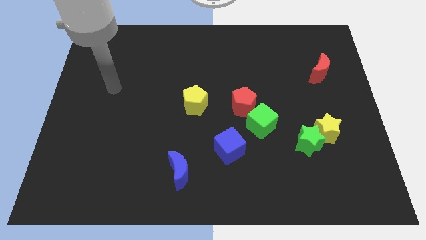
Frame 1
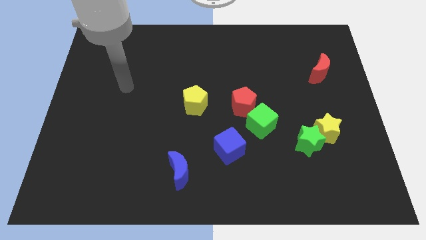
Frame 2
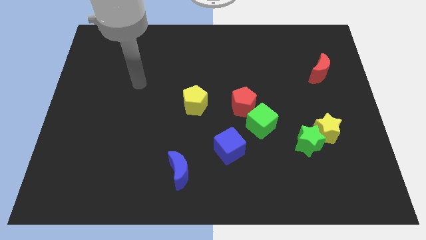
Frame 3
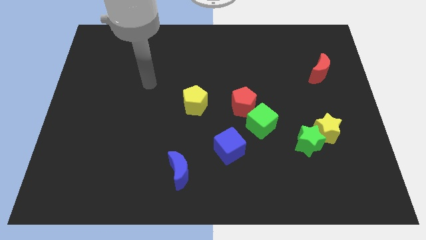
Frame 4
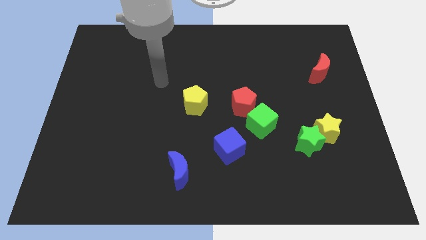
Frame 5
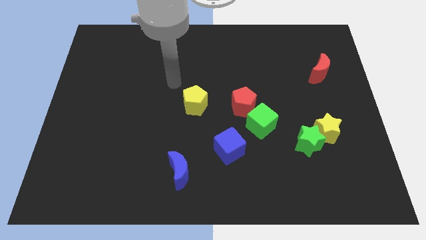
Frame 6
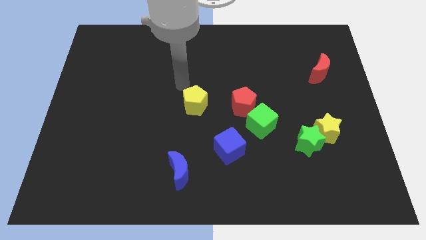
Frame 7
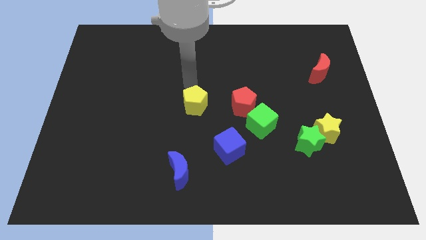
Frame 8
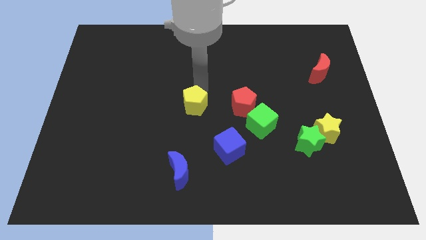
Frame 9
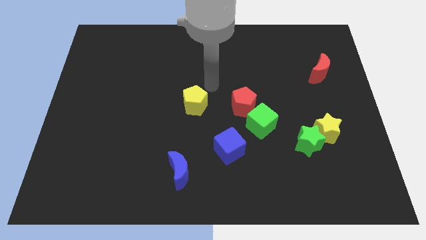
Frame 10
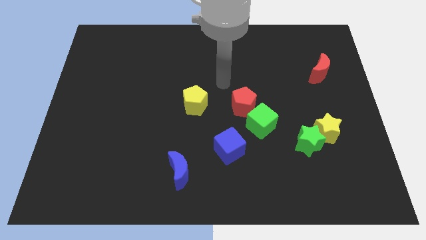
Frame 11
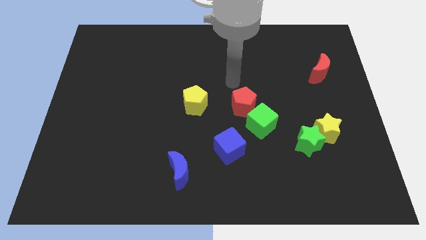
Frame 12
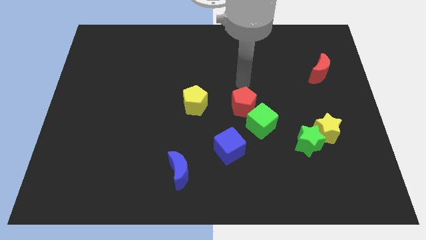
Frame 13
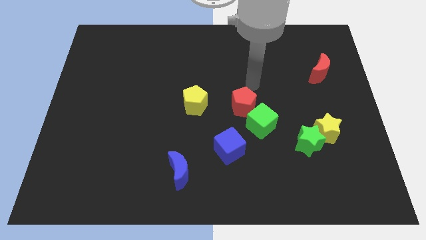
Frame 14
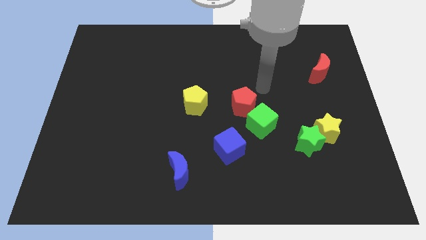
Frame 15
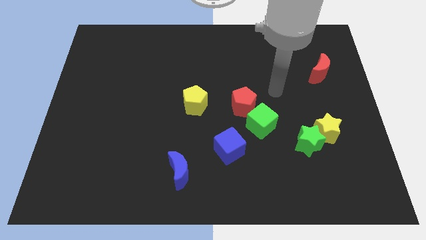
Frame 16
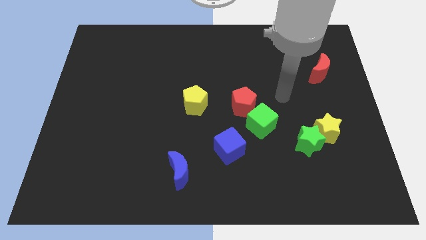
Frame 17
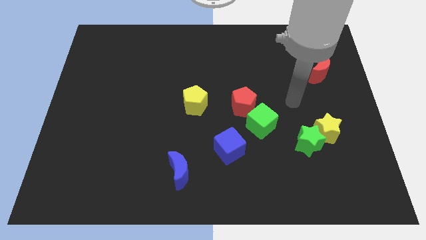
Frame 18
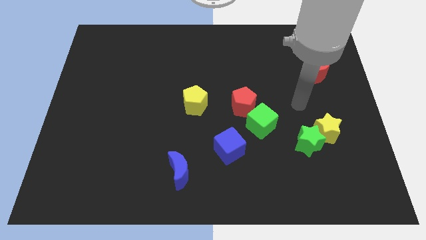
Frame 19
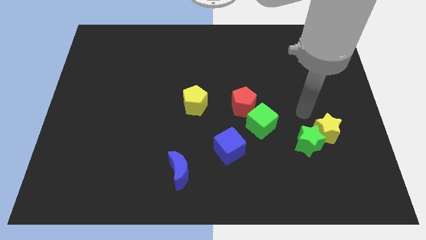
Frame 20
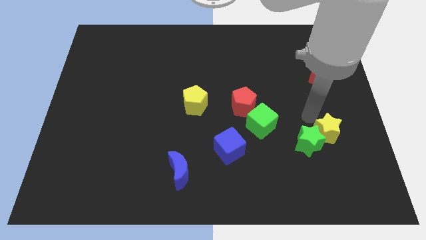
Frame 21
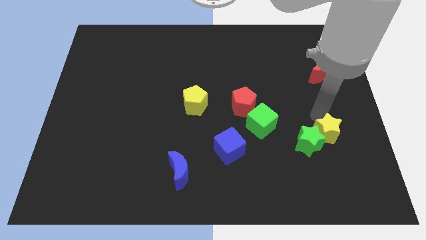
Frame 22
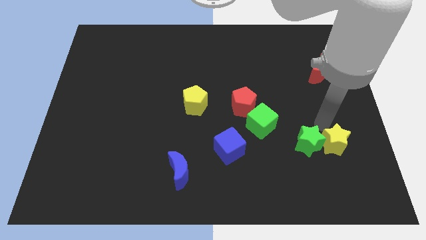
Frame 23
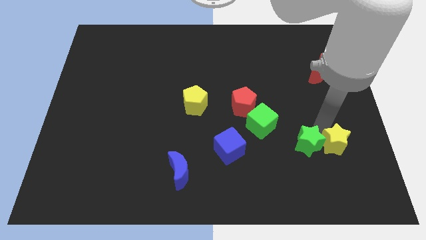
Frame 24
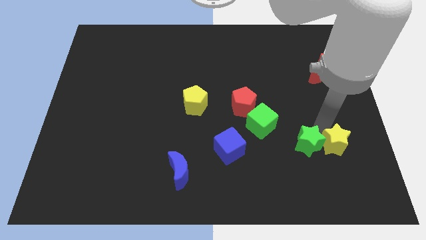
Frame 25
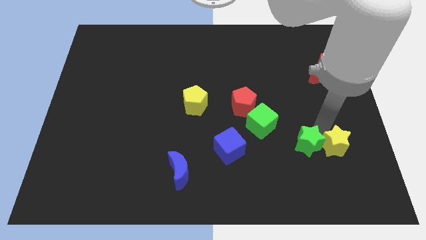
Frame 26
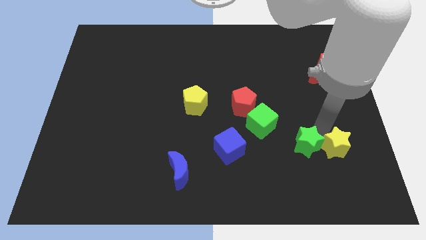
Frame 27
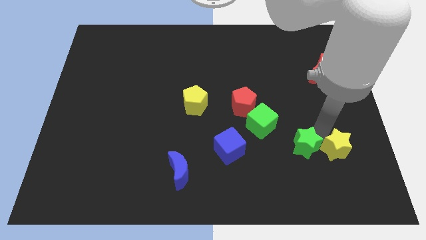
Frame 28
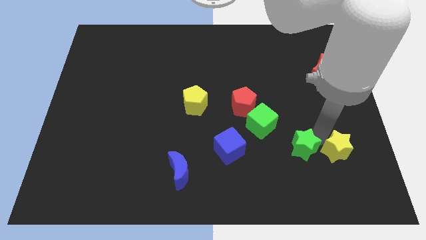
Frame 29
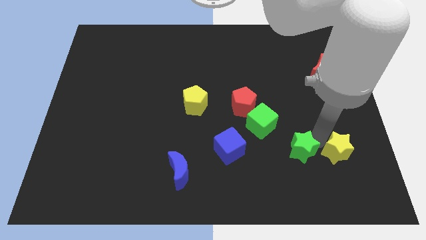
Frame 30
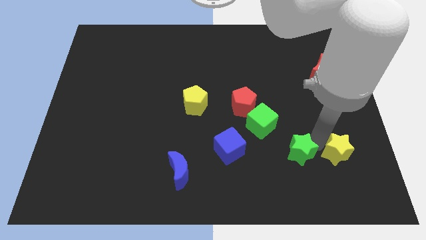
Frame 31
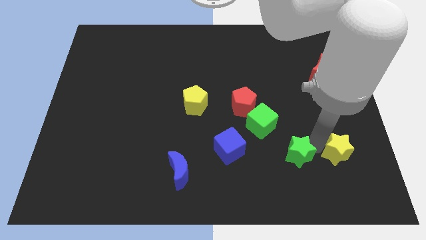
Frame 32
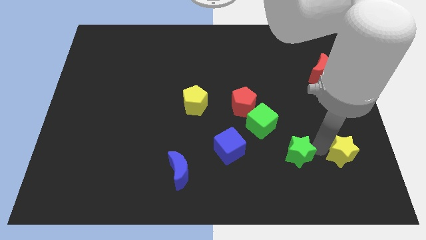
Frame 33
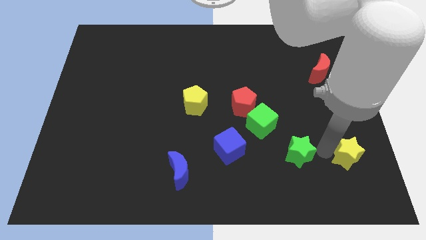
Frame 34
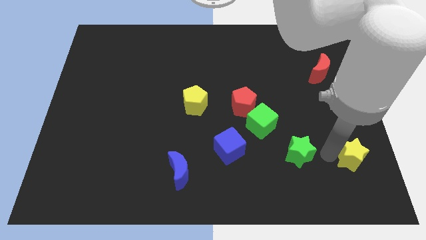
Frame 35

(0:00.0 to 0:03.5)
move the green star away from the yellow star

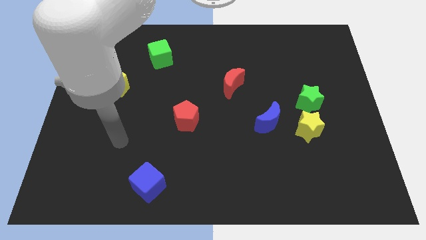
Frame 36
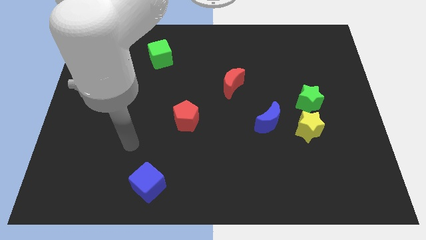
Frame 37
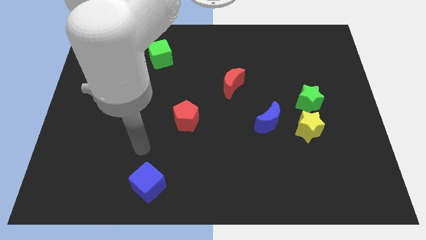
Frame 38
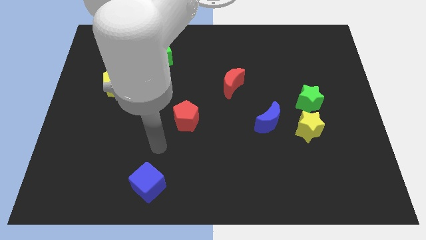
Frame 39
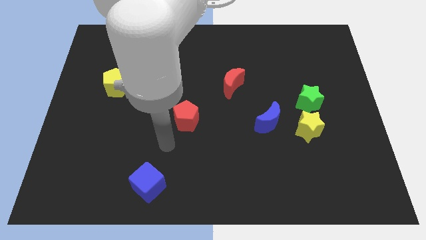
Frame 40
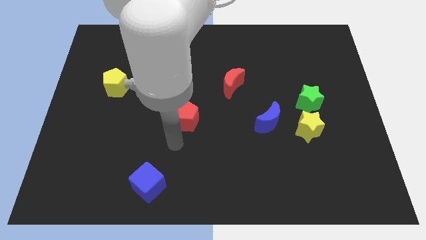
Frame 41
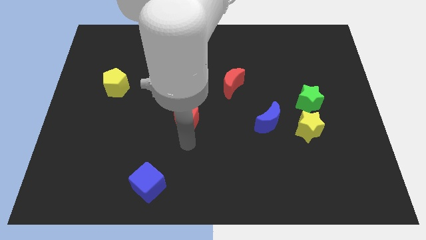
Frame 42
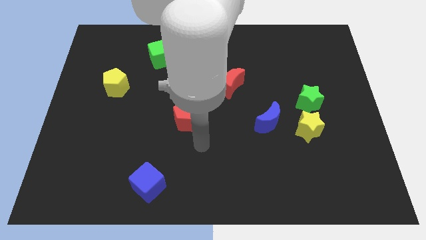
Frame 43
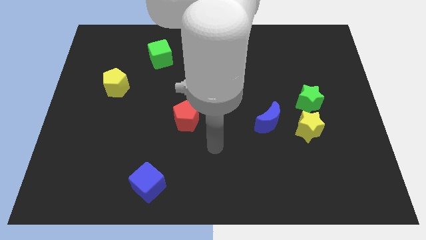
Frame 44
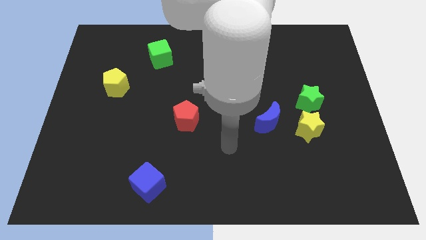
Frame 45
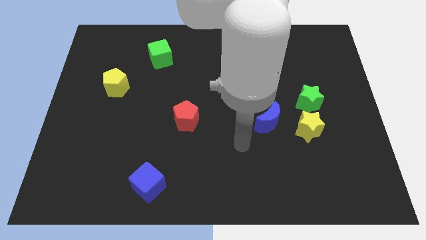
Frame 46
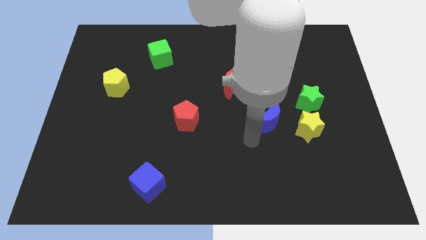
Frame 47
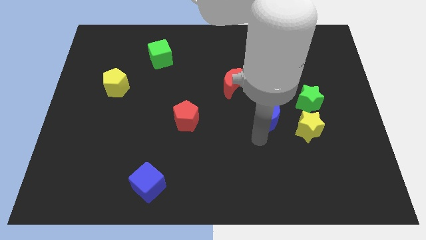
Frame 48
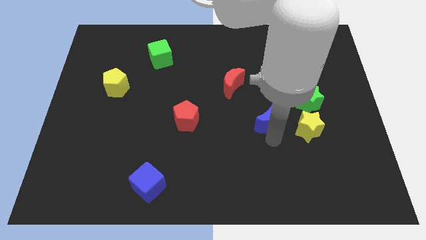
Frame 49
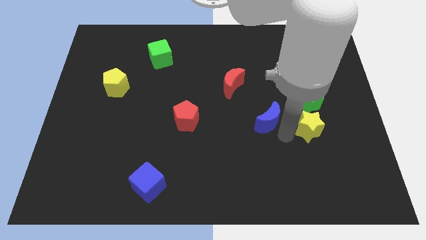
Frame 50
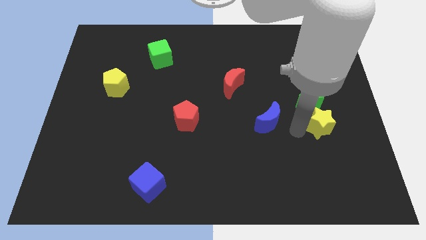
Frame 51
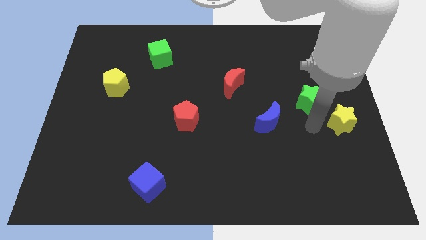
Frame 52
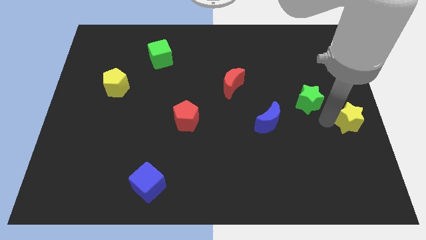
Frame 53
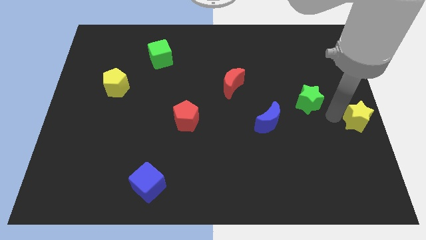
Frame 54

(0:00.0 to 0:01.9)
separate the green star from the yellow star

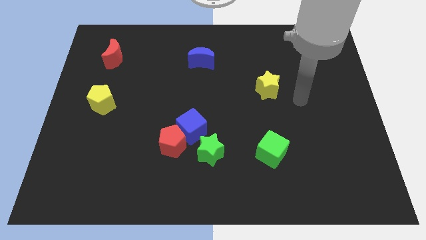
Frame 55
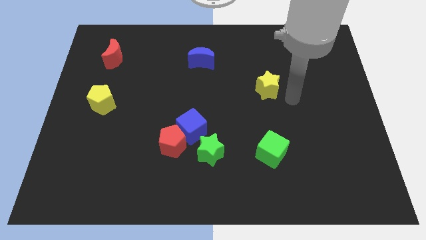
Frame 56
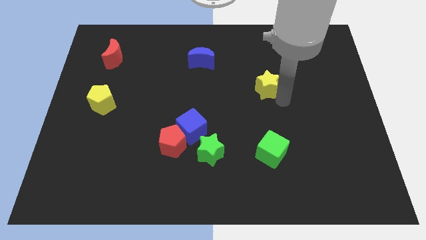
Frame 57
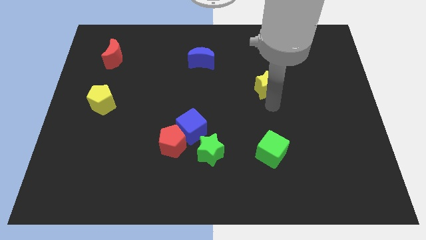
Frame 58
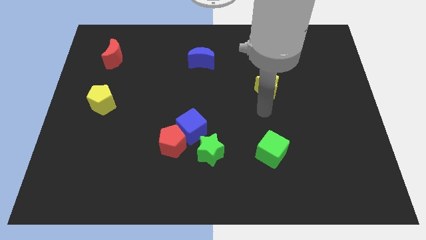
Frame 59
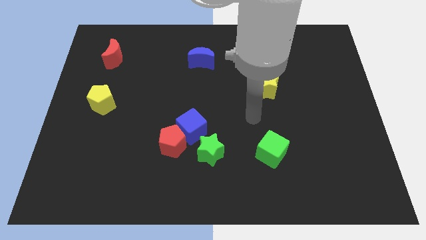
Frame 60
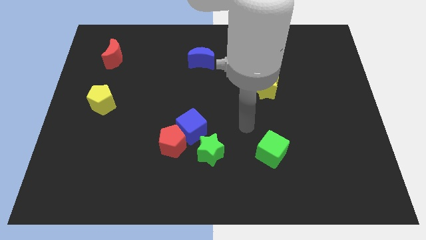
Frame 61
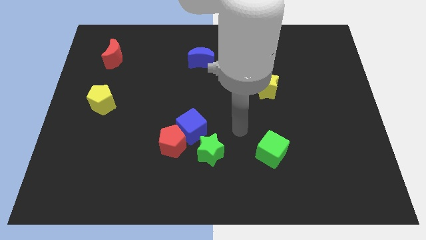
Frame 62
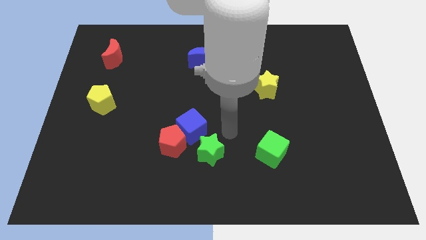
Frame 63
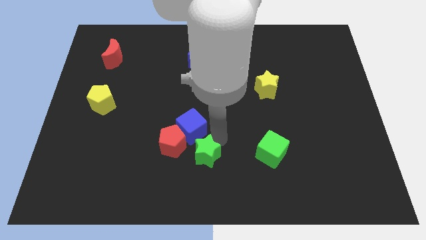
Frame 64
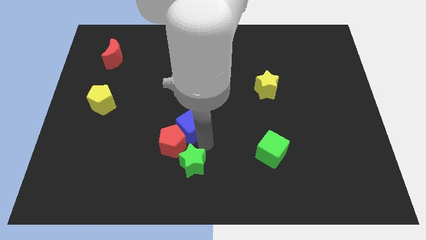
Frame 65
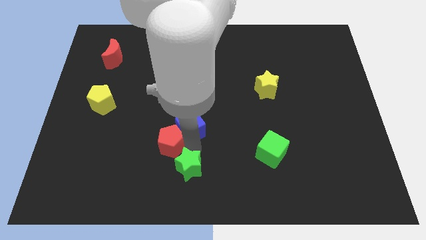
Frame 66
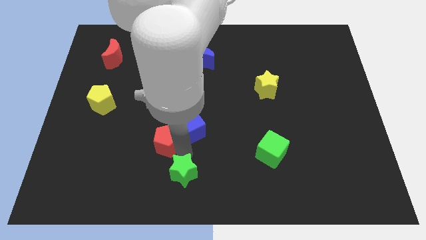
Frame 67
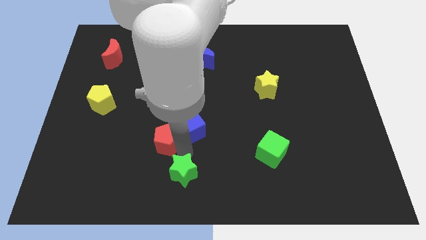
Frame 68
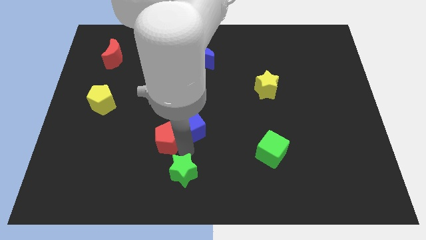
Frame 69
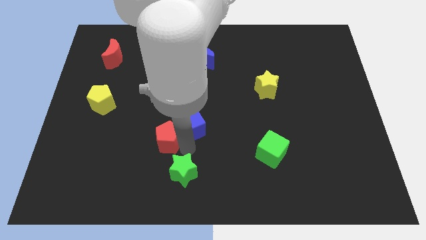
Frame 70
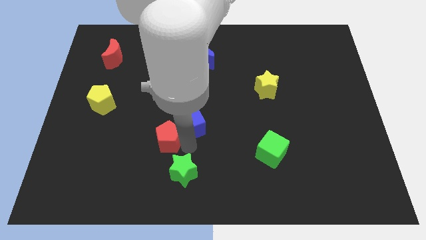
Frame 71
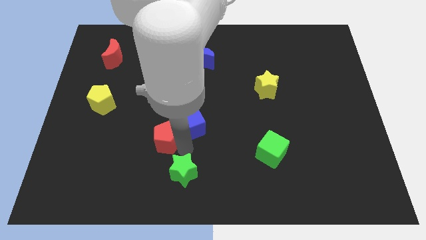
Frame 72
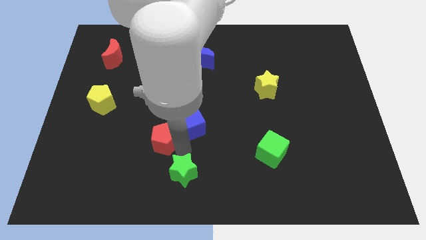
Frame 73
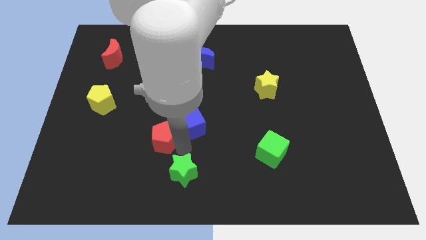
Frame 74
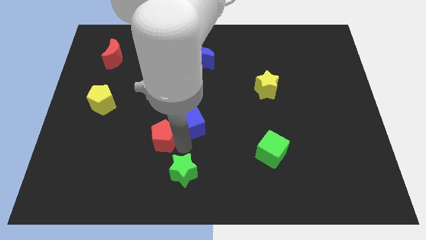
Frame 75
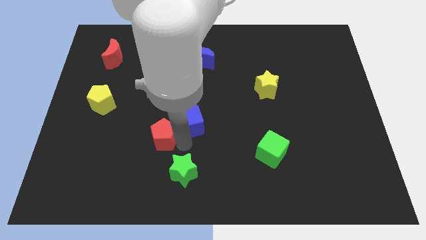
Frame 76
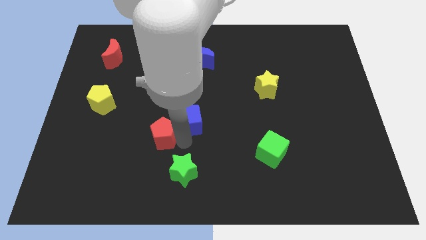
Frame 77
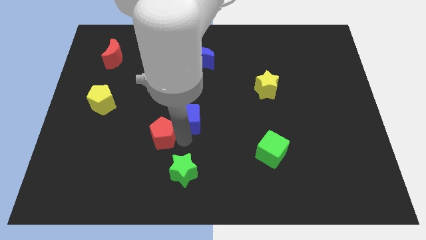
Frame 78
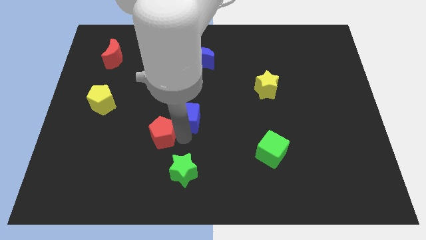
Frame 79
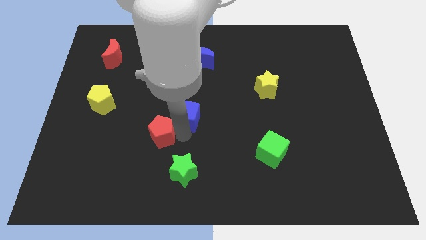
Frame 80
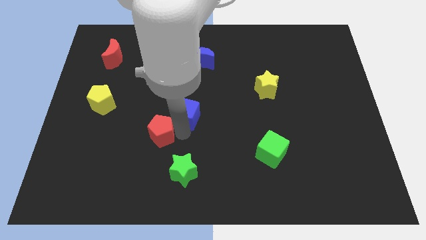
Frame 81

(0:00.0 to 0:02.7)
pull the blue cube apart from the red pentagon and green star

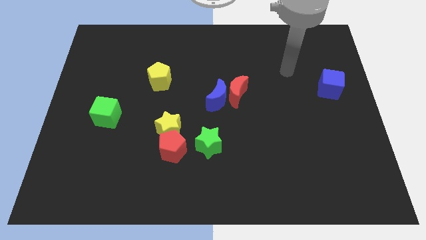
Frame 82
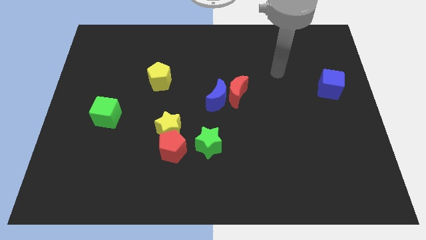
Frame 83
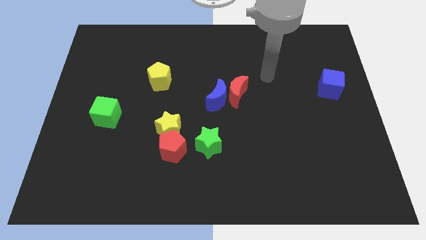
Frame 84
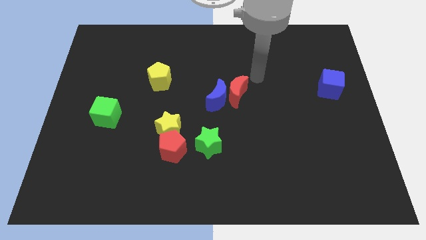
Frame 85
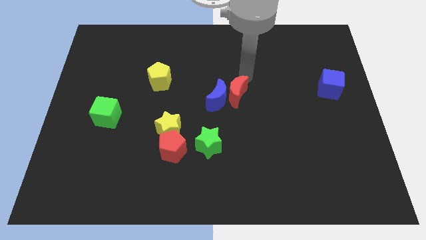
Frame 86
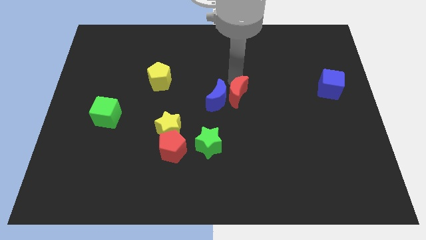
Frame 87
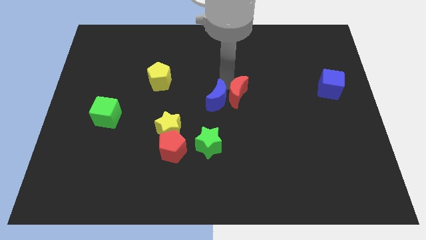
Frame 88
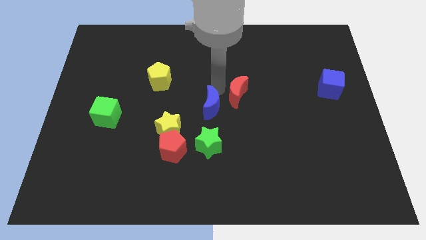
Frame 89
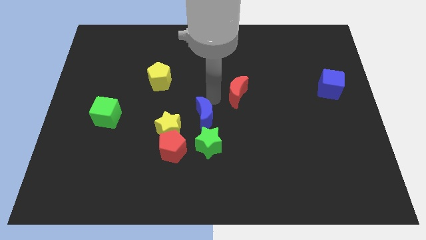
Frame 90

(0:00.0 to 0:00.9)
separate the red moon from the blue moon

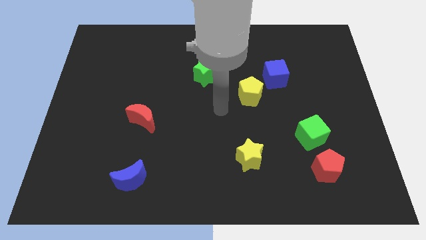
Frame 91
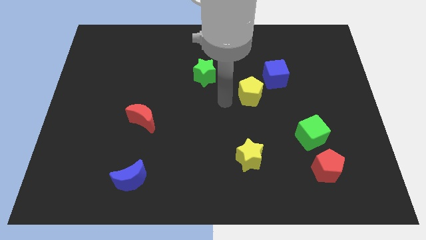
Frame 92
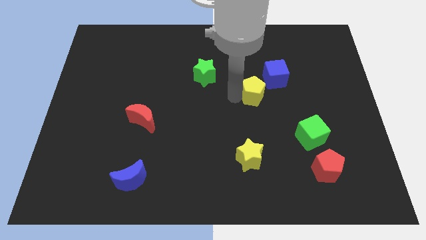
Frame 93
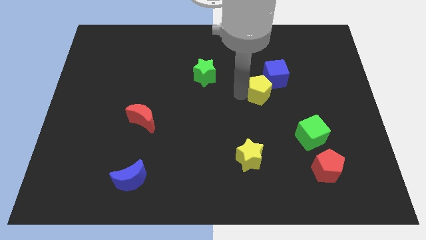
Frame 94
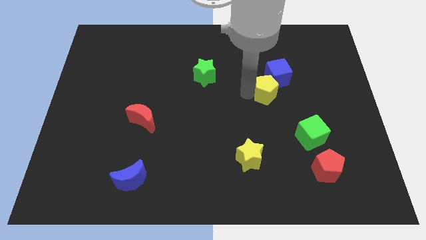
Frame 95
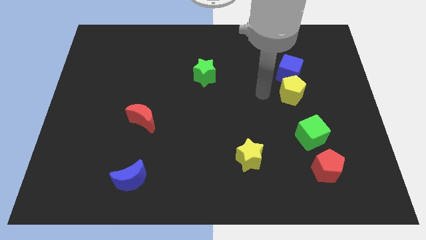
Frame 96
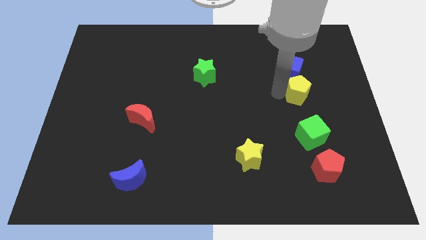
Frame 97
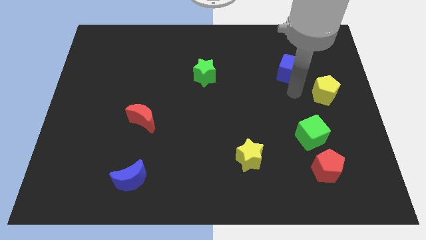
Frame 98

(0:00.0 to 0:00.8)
pull the blue cube apart from the yellow pentagon
